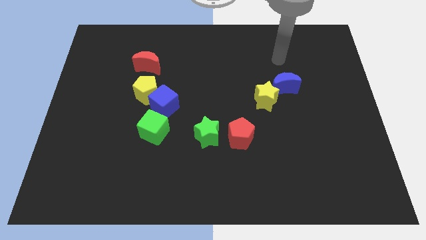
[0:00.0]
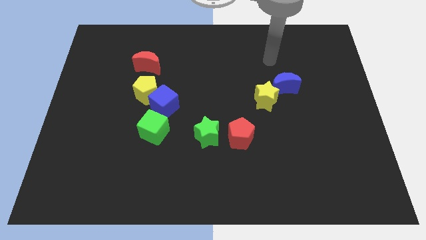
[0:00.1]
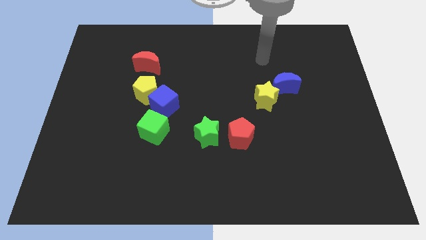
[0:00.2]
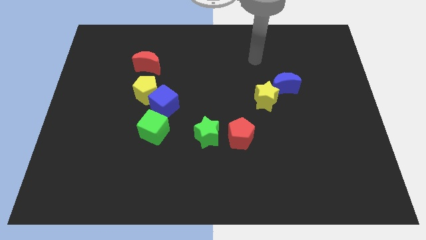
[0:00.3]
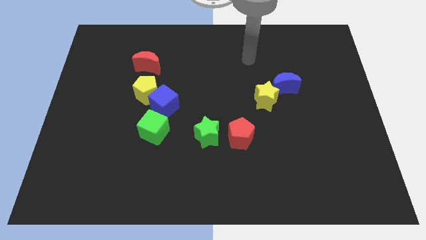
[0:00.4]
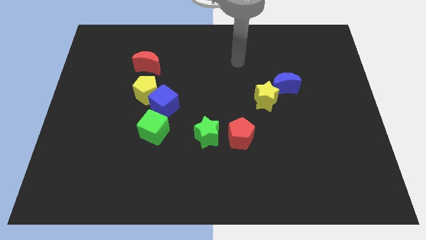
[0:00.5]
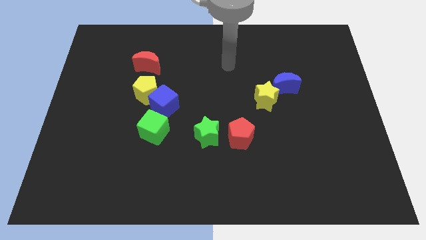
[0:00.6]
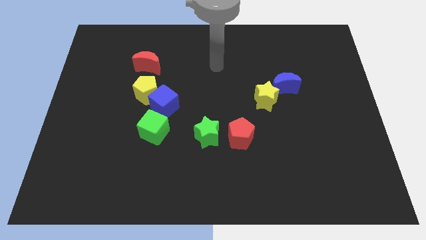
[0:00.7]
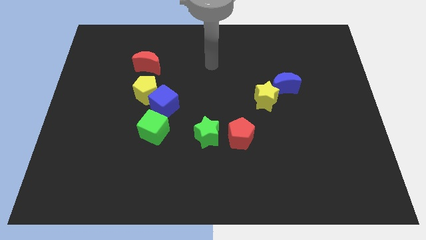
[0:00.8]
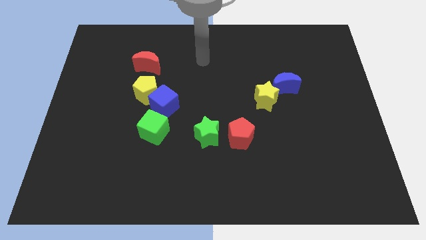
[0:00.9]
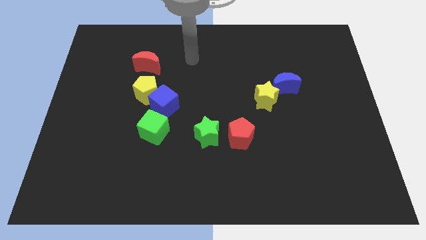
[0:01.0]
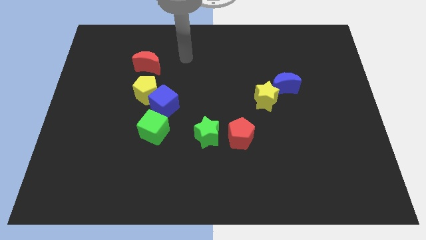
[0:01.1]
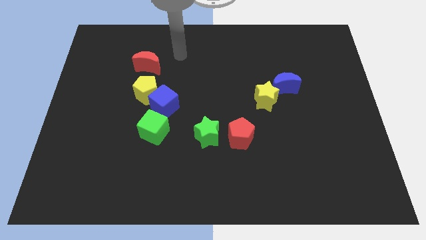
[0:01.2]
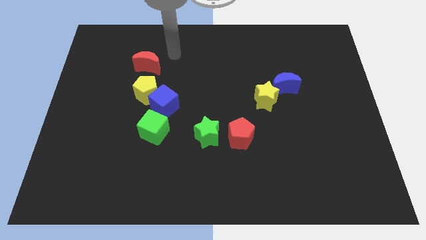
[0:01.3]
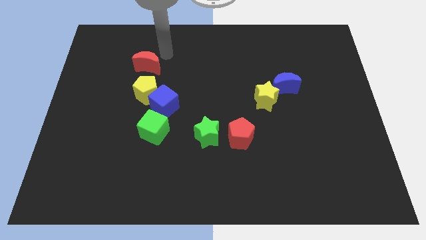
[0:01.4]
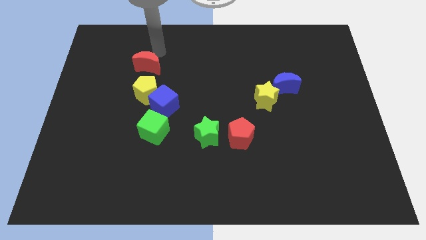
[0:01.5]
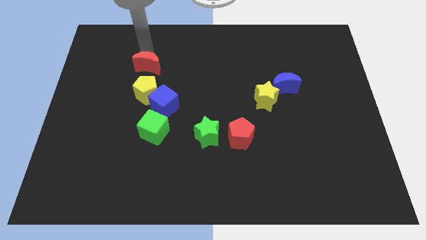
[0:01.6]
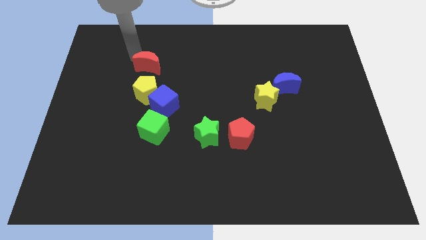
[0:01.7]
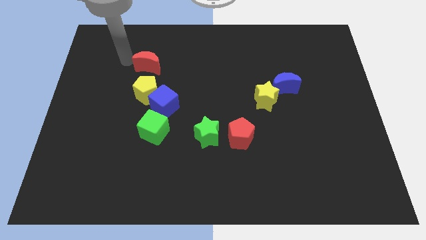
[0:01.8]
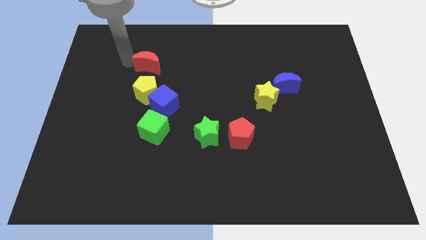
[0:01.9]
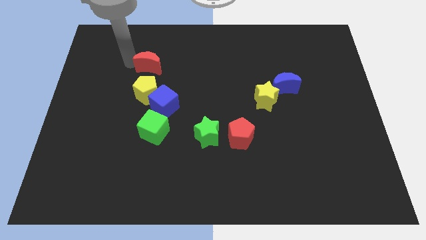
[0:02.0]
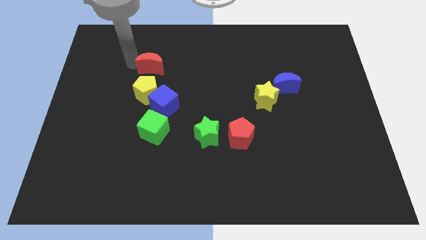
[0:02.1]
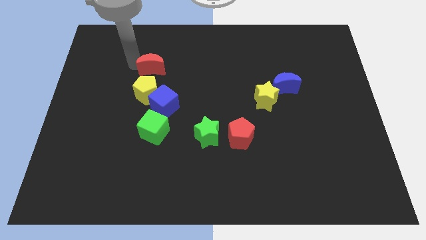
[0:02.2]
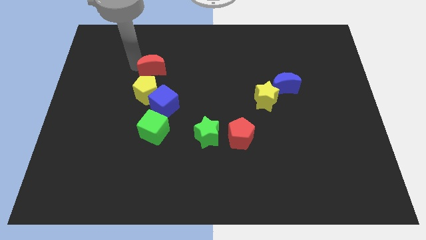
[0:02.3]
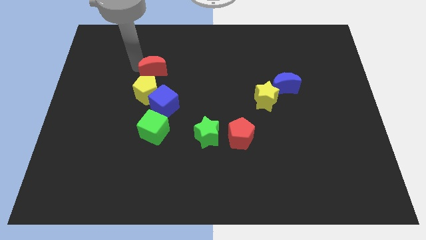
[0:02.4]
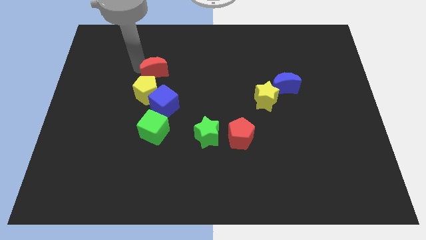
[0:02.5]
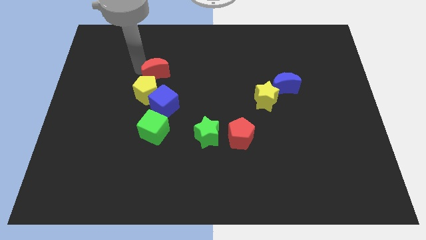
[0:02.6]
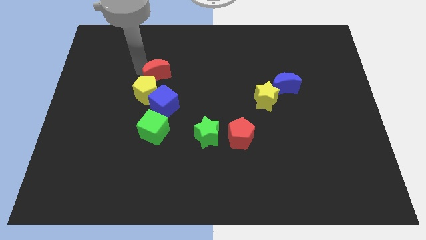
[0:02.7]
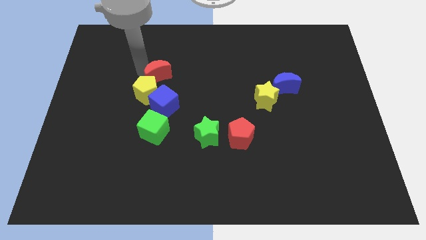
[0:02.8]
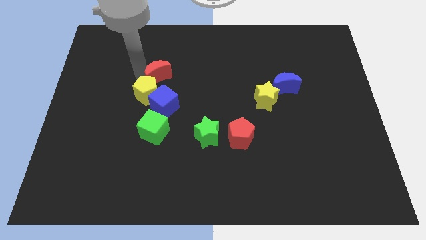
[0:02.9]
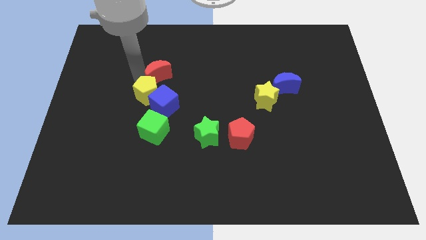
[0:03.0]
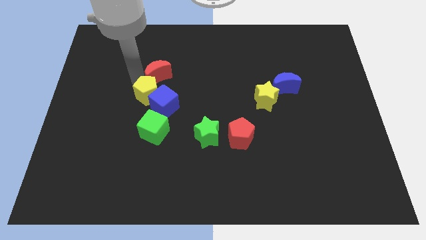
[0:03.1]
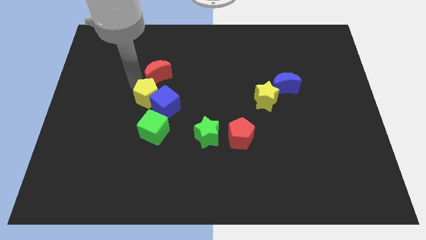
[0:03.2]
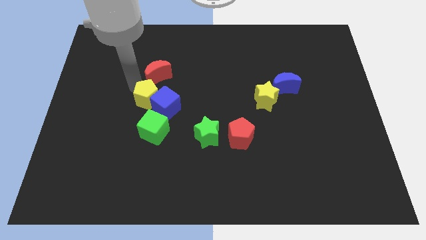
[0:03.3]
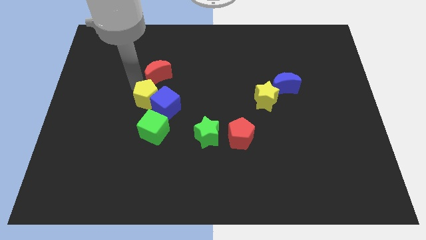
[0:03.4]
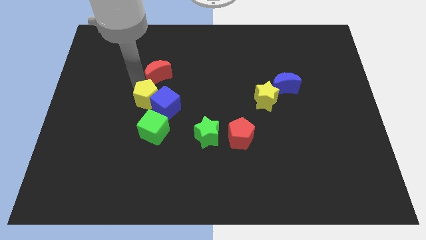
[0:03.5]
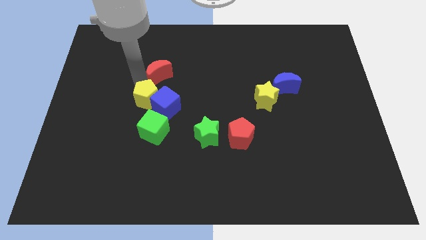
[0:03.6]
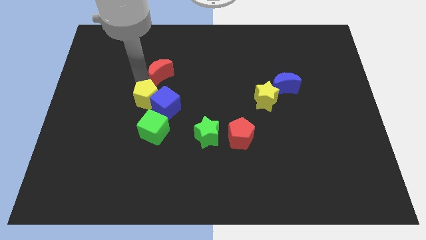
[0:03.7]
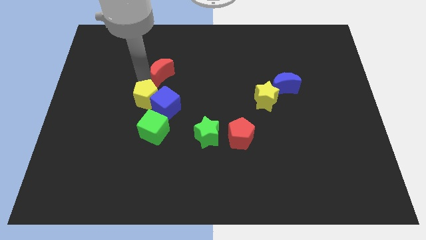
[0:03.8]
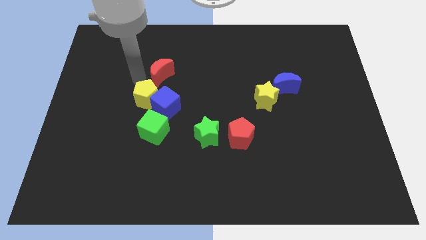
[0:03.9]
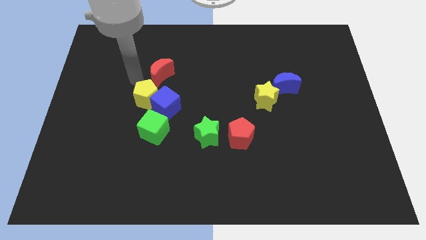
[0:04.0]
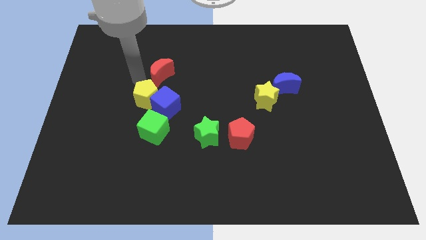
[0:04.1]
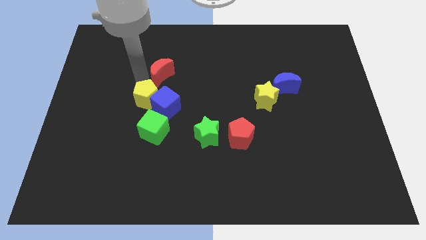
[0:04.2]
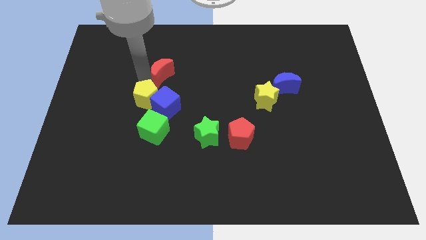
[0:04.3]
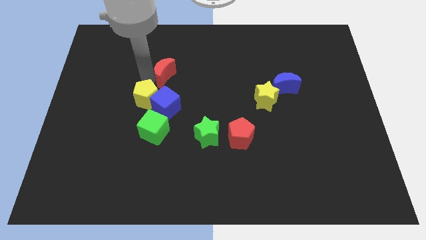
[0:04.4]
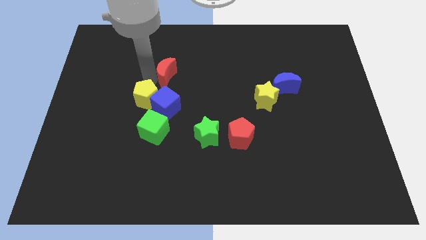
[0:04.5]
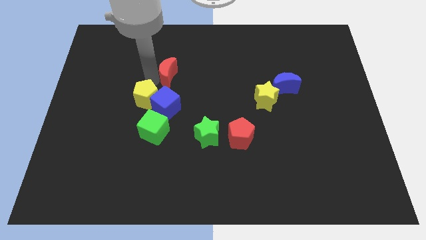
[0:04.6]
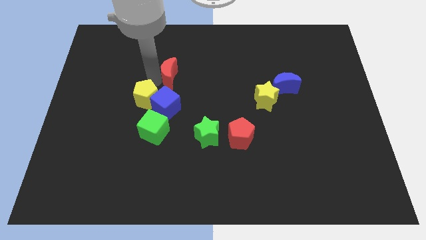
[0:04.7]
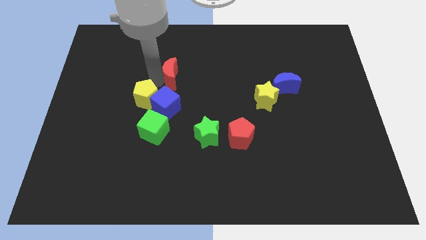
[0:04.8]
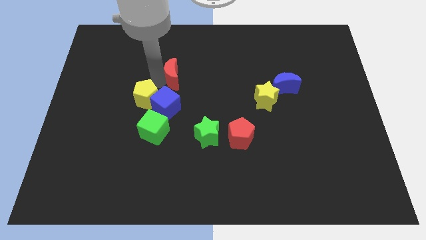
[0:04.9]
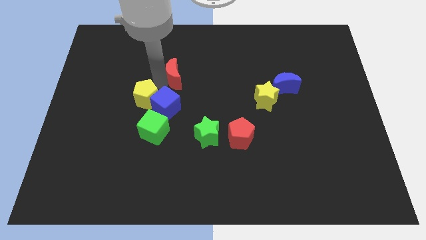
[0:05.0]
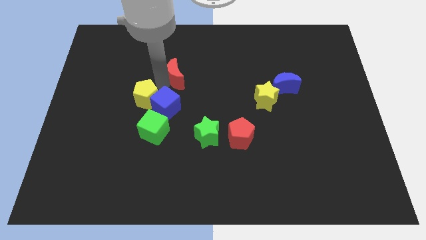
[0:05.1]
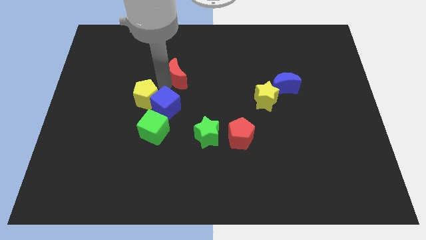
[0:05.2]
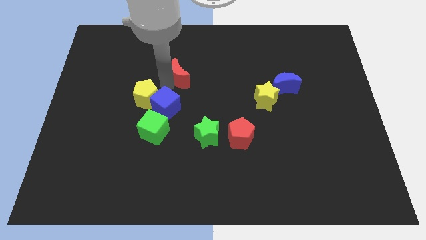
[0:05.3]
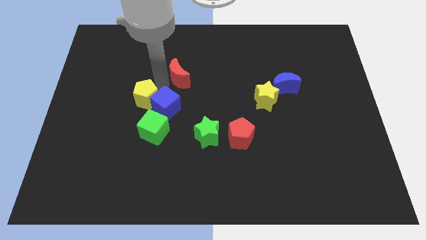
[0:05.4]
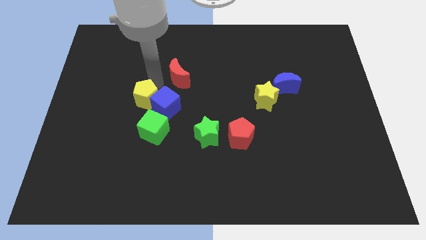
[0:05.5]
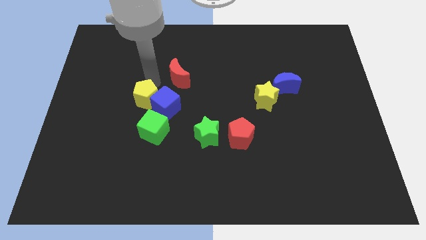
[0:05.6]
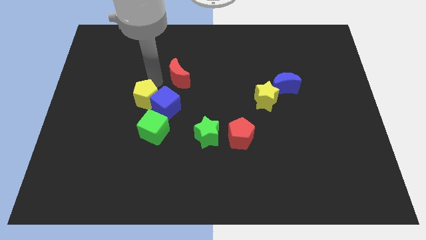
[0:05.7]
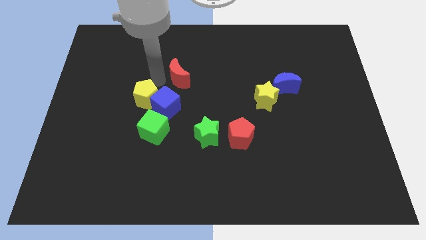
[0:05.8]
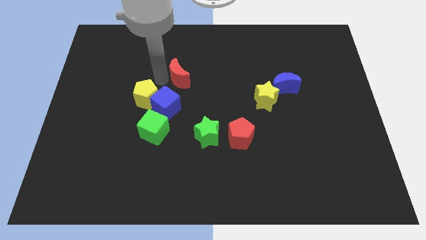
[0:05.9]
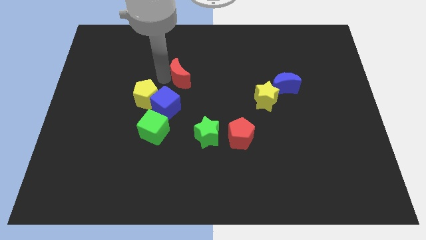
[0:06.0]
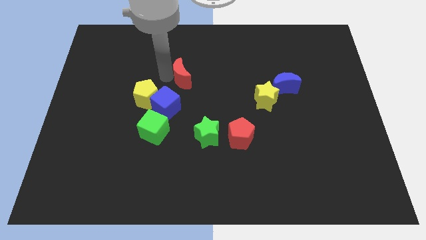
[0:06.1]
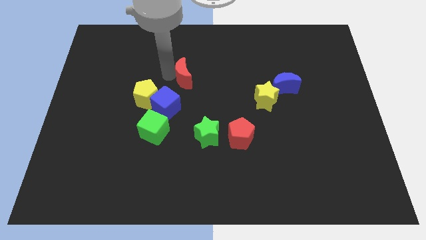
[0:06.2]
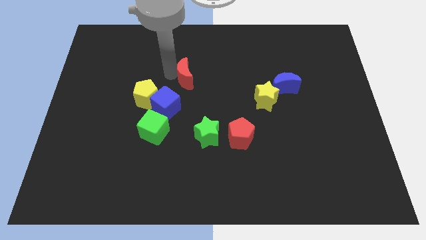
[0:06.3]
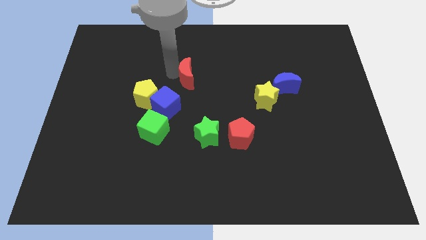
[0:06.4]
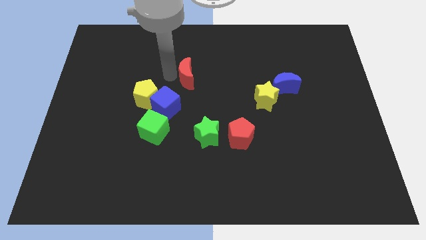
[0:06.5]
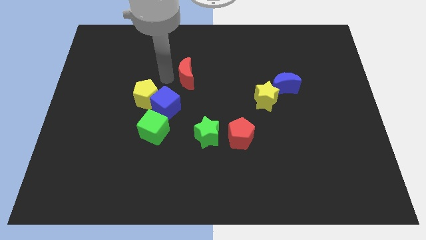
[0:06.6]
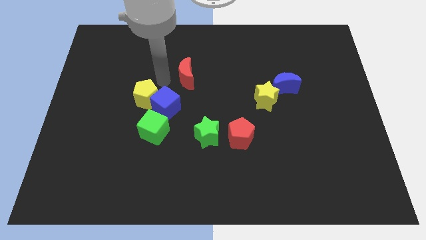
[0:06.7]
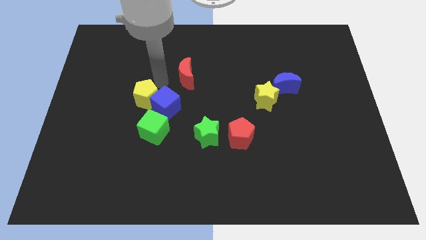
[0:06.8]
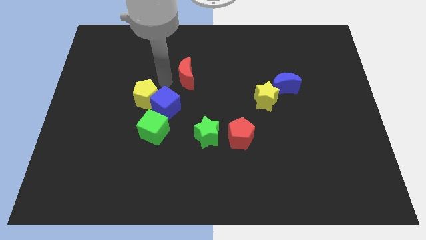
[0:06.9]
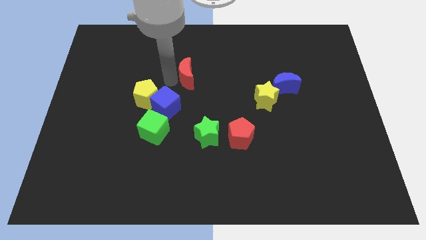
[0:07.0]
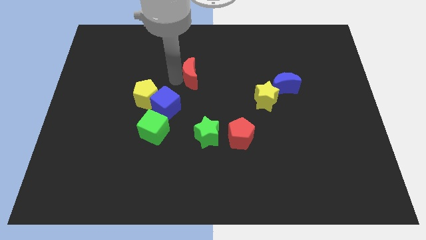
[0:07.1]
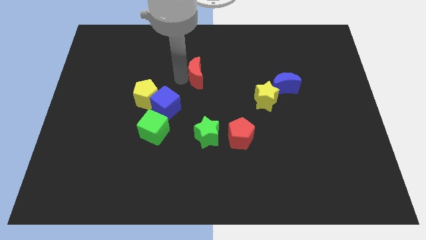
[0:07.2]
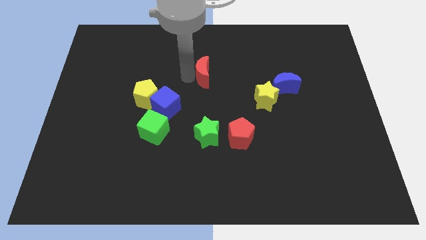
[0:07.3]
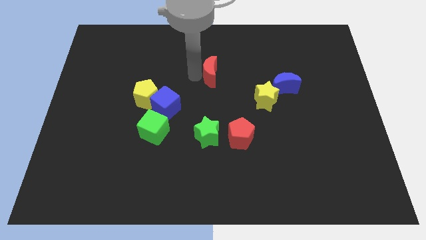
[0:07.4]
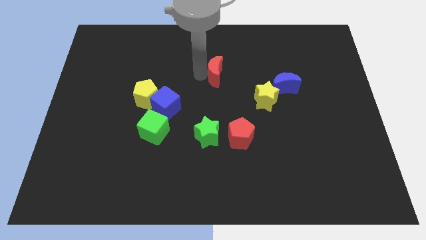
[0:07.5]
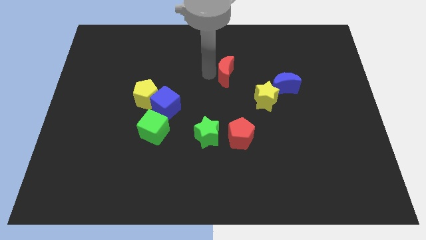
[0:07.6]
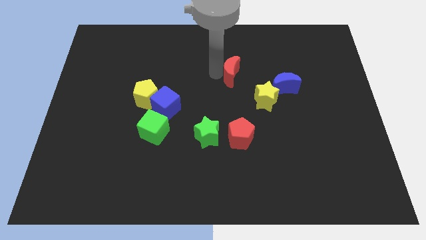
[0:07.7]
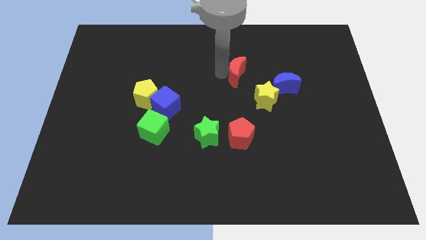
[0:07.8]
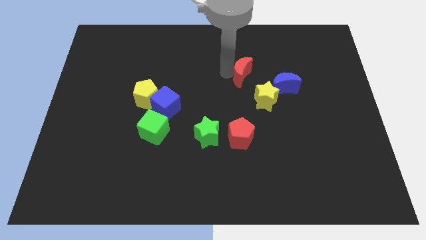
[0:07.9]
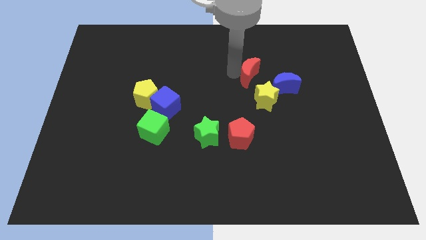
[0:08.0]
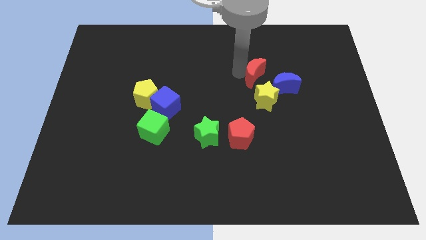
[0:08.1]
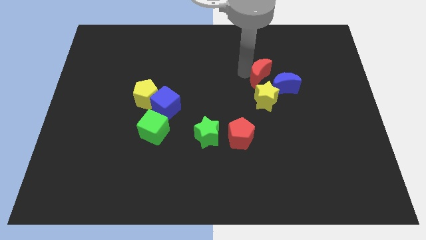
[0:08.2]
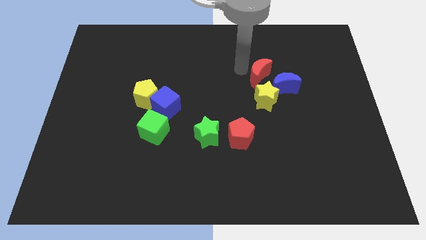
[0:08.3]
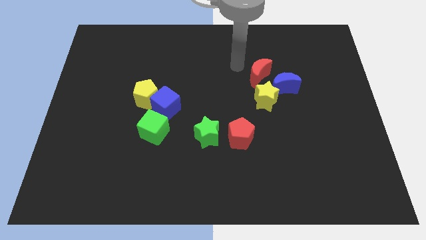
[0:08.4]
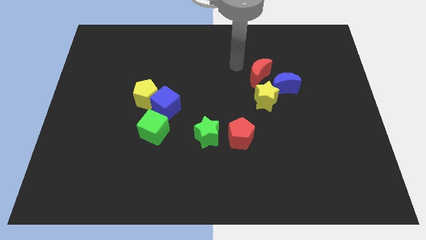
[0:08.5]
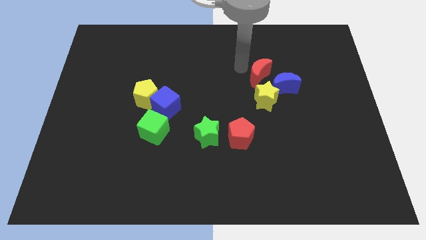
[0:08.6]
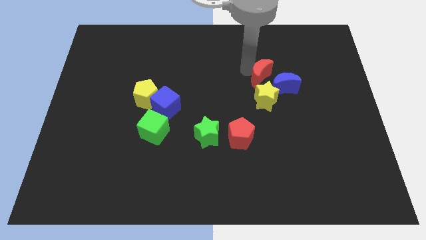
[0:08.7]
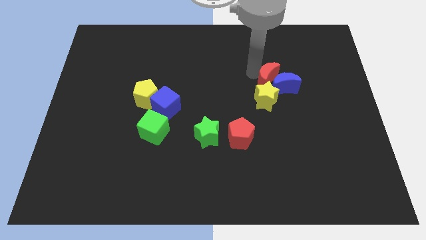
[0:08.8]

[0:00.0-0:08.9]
push the red moon next to the blue moon
